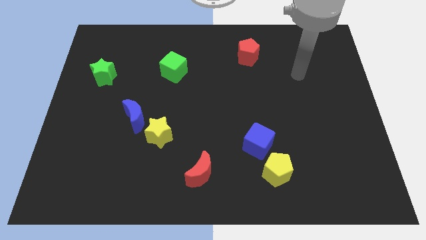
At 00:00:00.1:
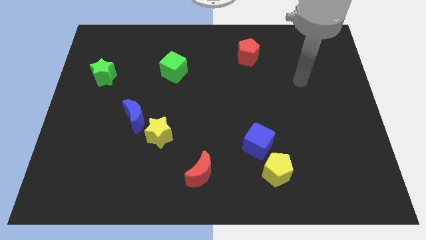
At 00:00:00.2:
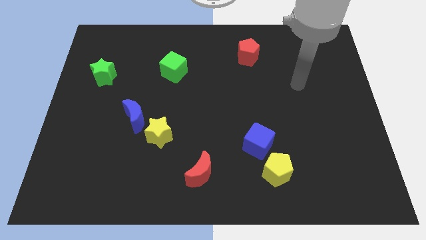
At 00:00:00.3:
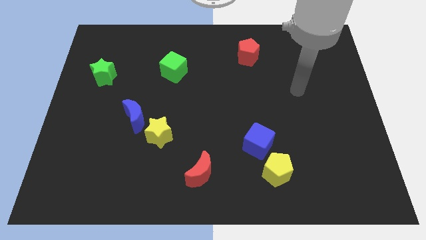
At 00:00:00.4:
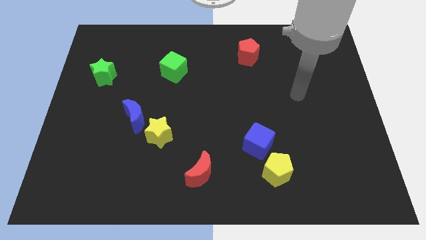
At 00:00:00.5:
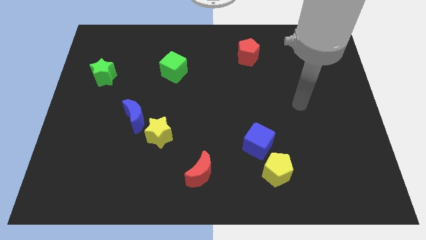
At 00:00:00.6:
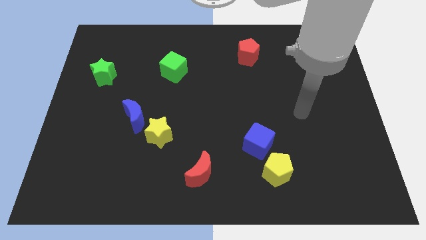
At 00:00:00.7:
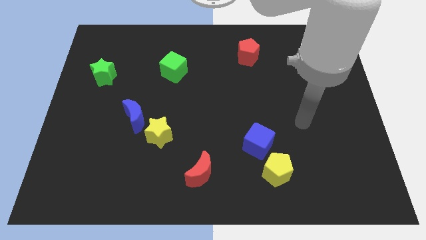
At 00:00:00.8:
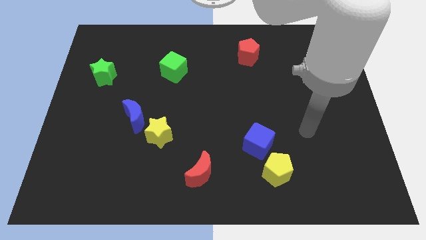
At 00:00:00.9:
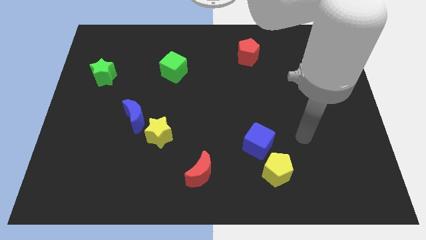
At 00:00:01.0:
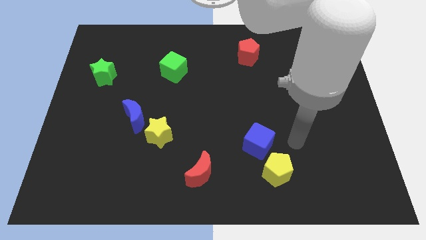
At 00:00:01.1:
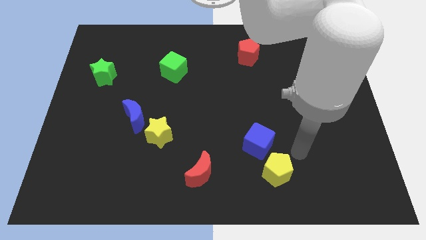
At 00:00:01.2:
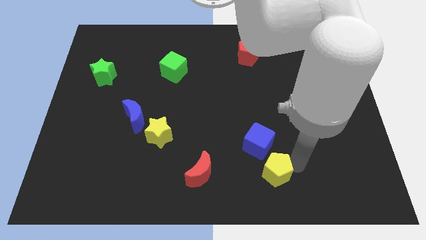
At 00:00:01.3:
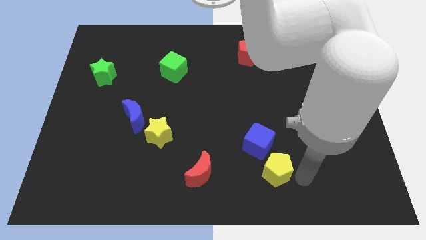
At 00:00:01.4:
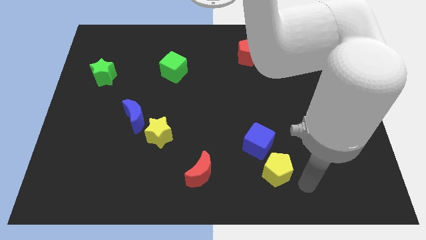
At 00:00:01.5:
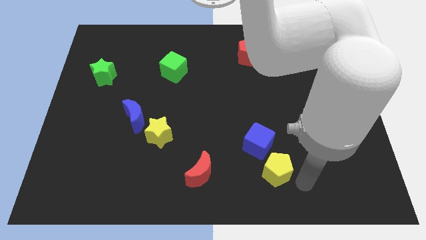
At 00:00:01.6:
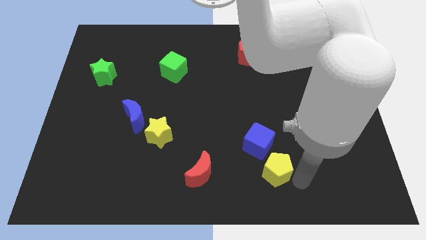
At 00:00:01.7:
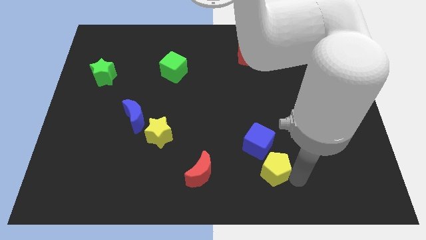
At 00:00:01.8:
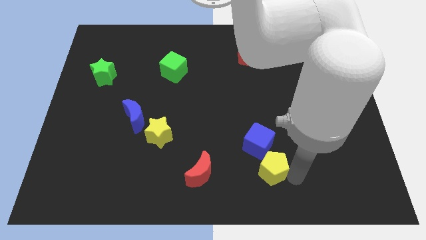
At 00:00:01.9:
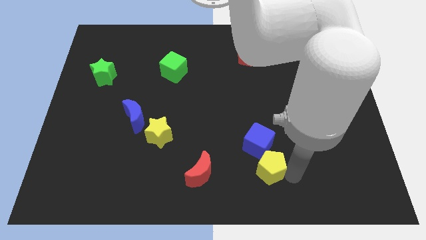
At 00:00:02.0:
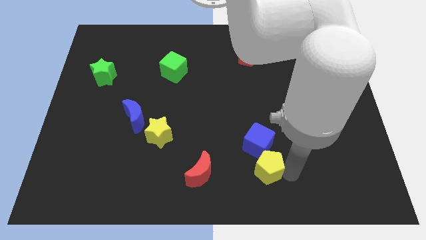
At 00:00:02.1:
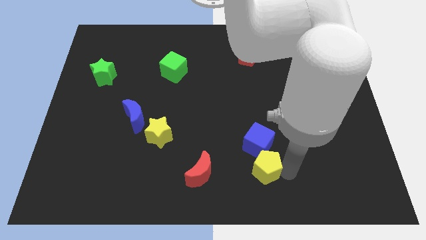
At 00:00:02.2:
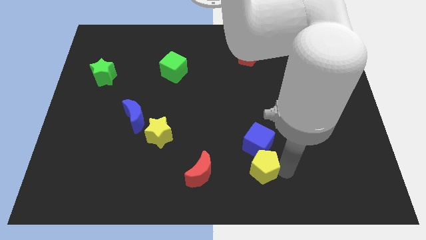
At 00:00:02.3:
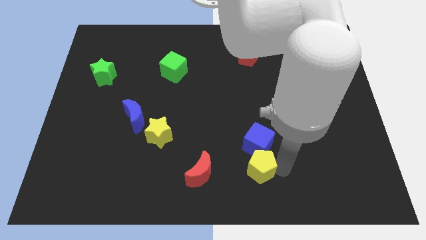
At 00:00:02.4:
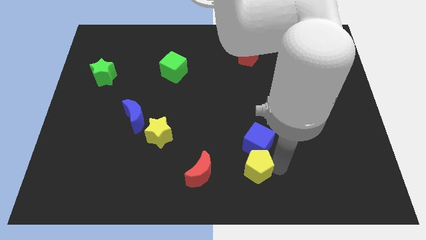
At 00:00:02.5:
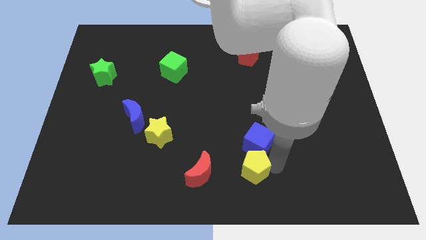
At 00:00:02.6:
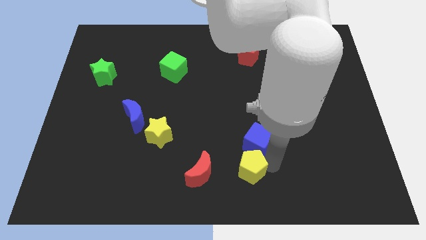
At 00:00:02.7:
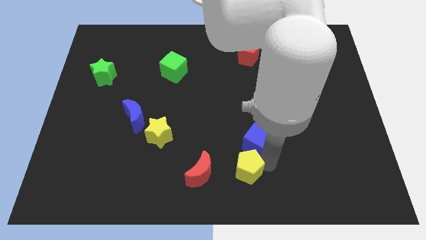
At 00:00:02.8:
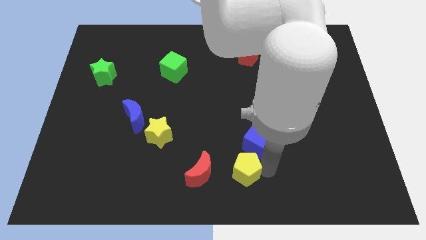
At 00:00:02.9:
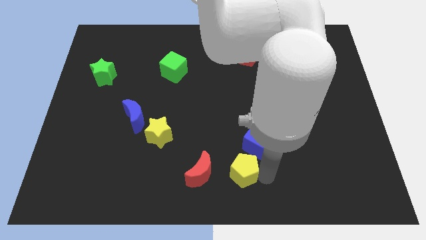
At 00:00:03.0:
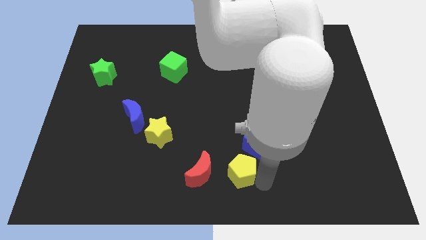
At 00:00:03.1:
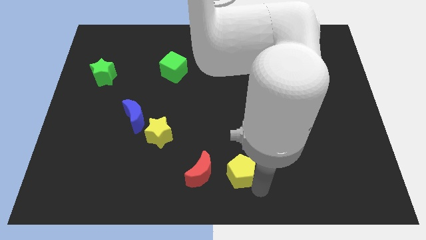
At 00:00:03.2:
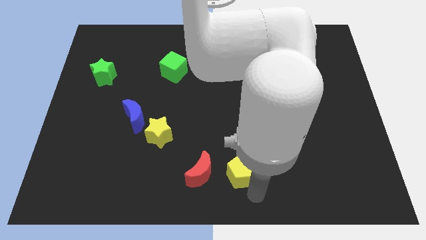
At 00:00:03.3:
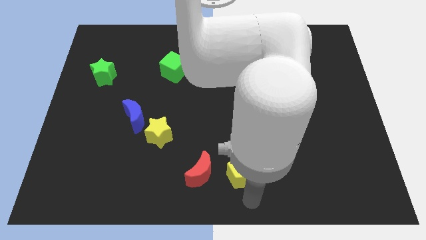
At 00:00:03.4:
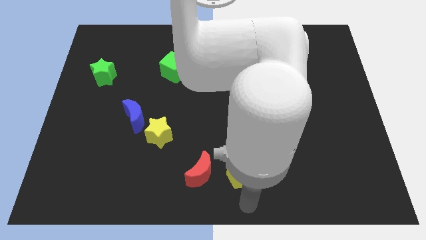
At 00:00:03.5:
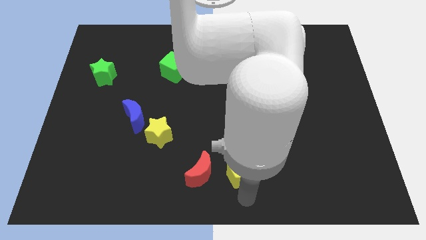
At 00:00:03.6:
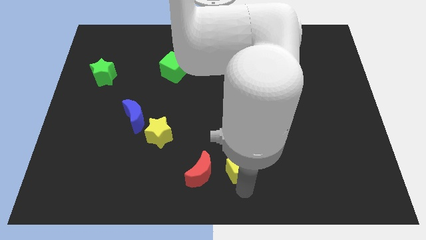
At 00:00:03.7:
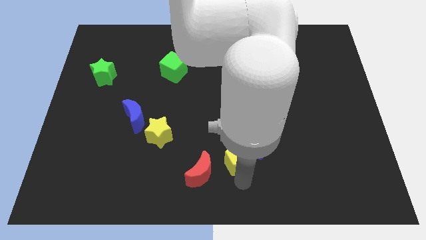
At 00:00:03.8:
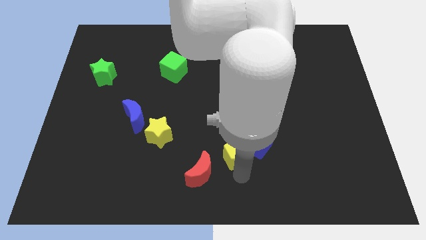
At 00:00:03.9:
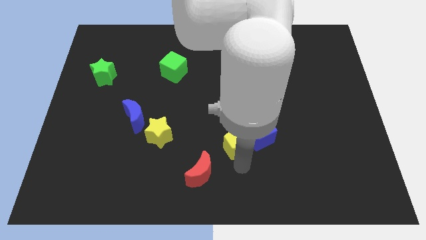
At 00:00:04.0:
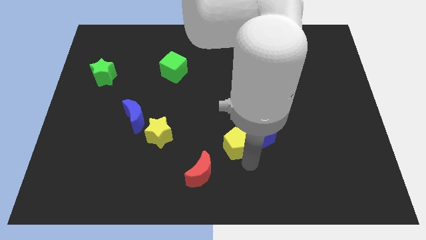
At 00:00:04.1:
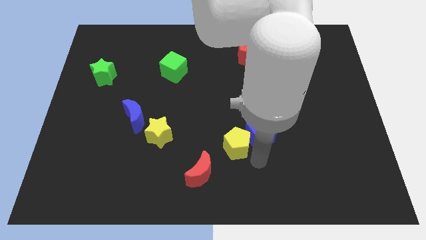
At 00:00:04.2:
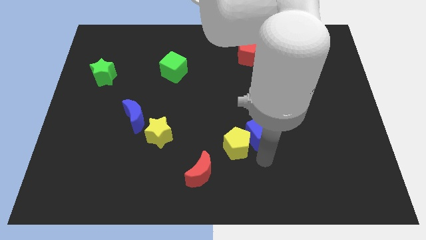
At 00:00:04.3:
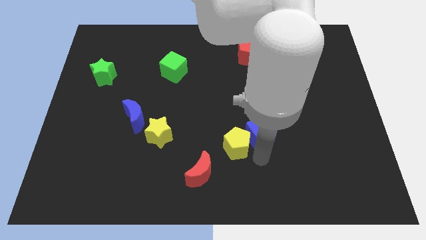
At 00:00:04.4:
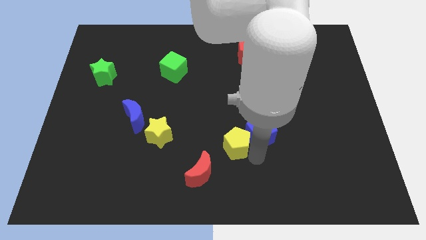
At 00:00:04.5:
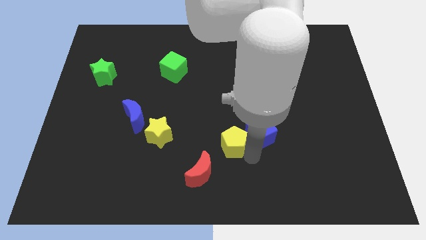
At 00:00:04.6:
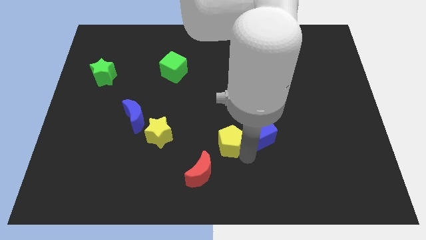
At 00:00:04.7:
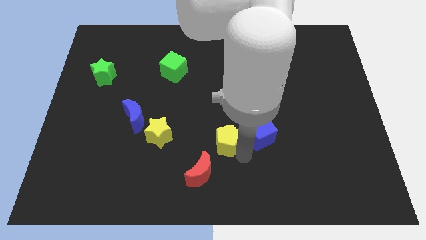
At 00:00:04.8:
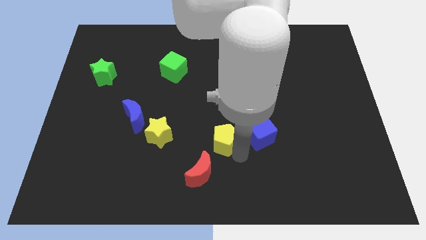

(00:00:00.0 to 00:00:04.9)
push the yellow pentagon to the top side of the red moon

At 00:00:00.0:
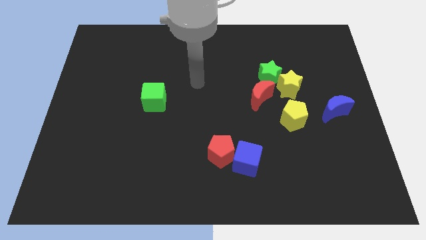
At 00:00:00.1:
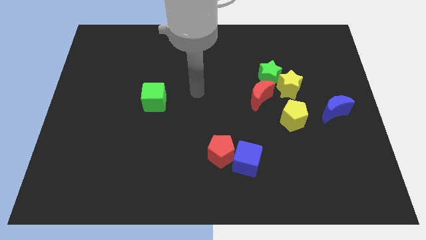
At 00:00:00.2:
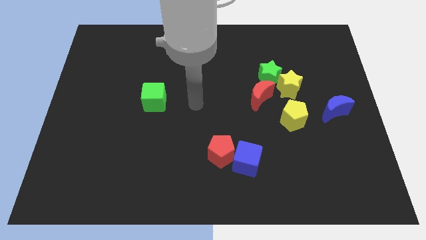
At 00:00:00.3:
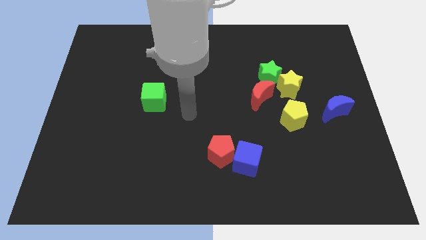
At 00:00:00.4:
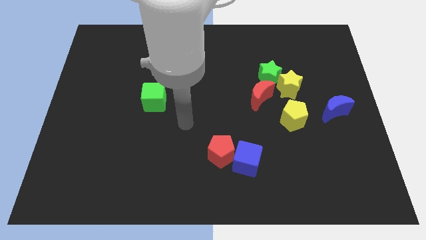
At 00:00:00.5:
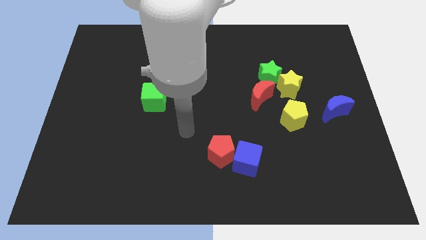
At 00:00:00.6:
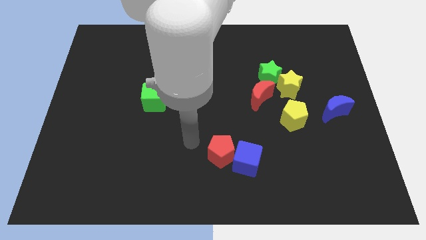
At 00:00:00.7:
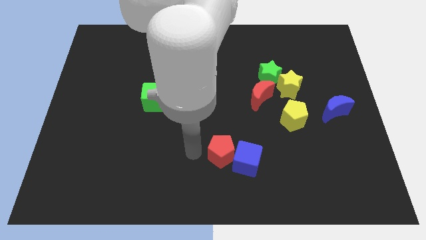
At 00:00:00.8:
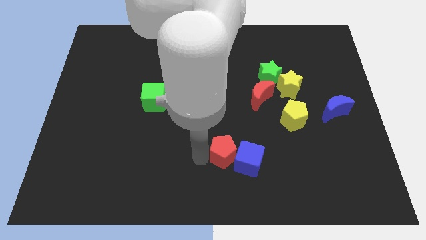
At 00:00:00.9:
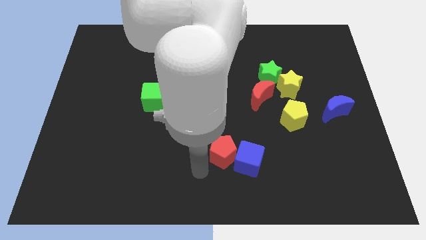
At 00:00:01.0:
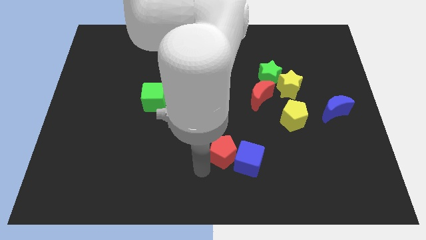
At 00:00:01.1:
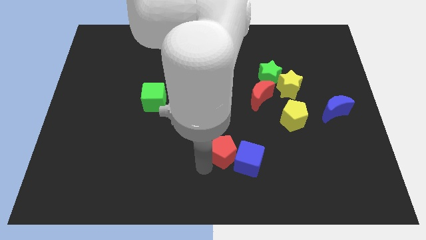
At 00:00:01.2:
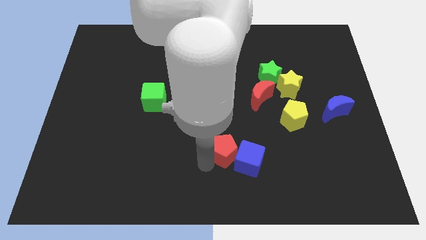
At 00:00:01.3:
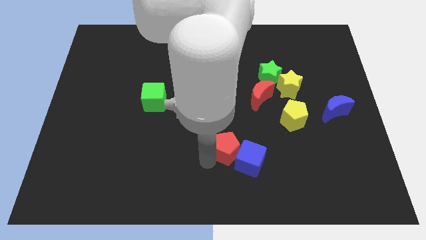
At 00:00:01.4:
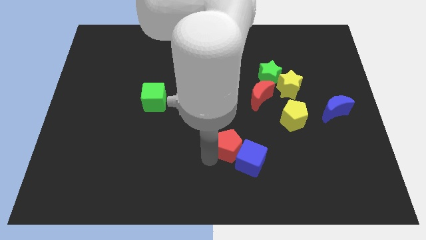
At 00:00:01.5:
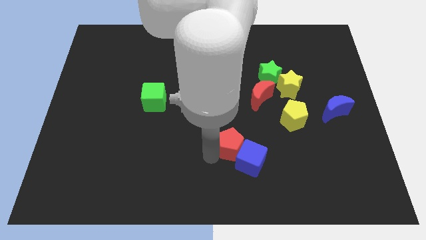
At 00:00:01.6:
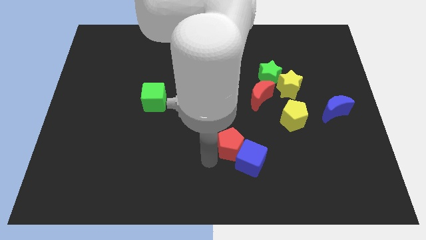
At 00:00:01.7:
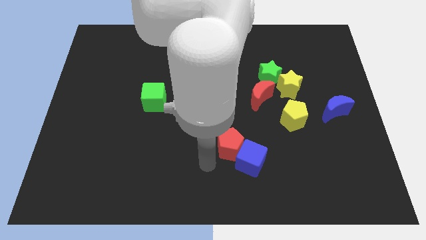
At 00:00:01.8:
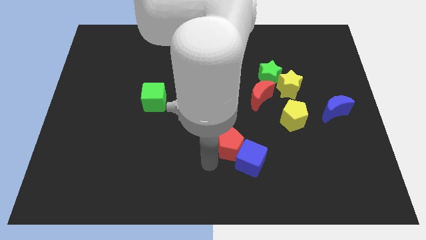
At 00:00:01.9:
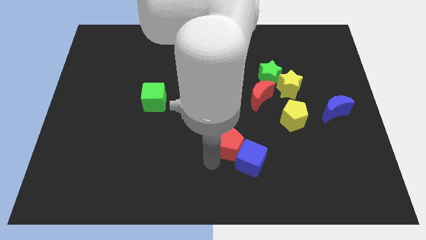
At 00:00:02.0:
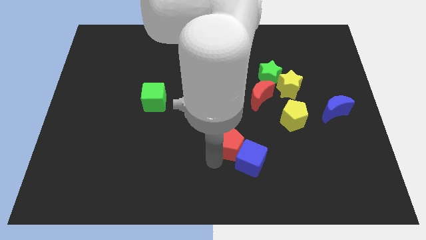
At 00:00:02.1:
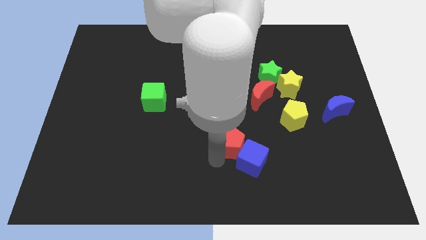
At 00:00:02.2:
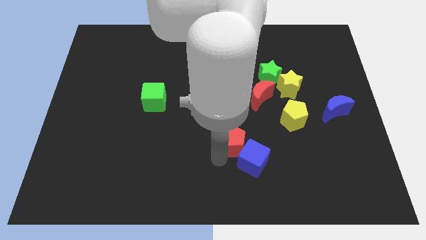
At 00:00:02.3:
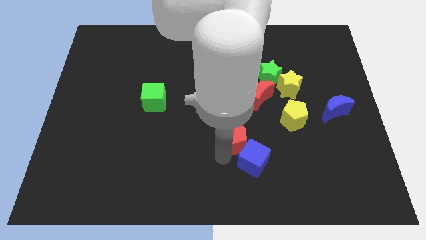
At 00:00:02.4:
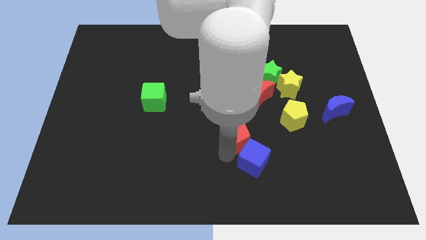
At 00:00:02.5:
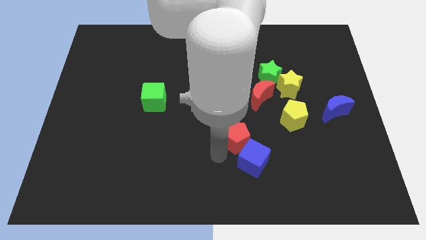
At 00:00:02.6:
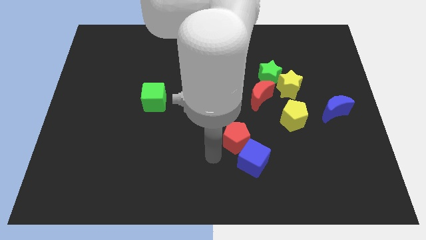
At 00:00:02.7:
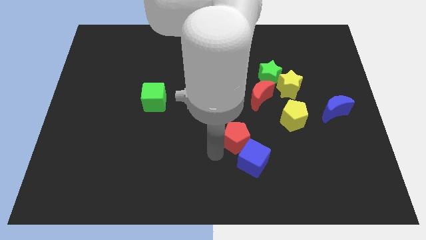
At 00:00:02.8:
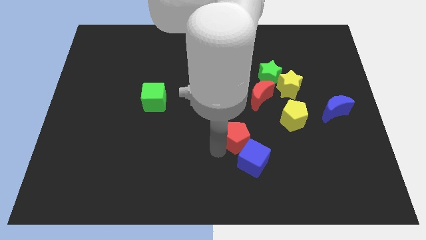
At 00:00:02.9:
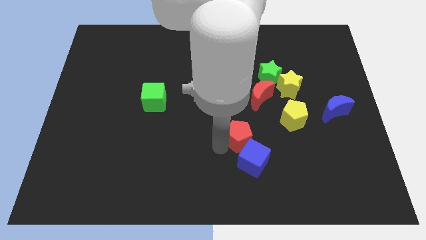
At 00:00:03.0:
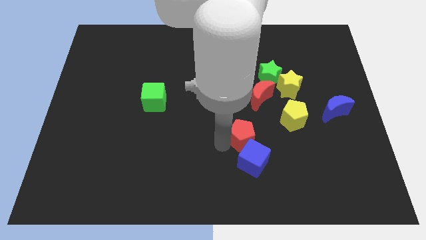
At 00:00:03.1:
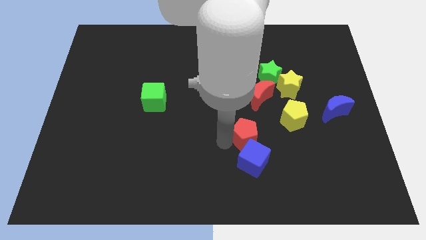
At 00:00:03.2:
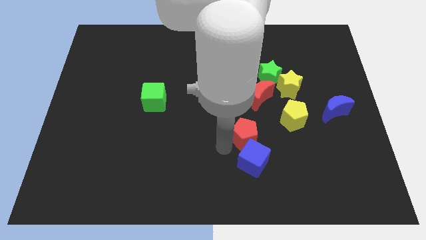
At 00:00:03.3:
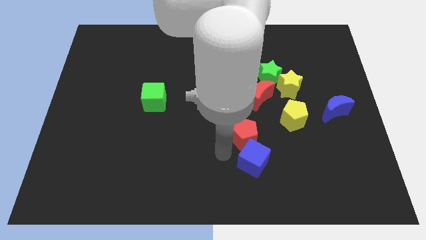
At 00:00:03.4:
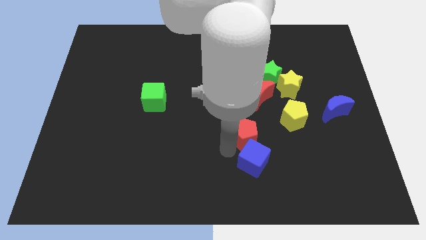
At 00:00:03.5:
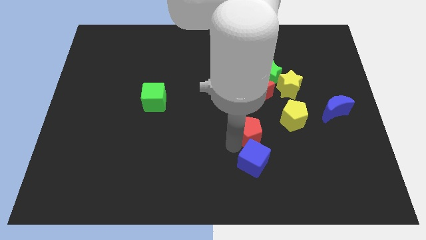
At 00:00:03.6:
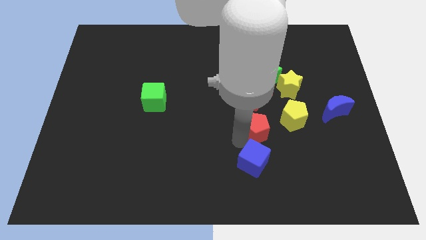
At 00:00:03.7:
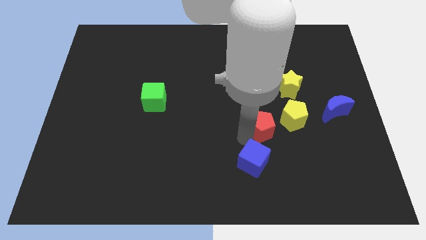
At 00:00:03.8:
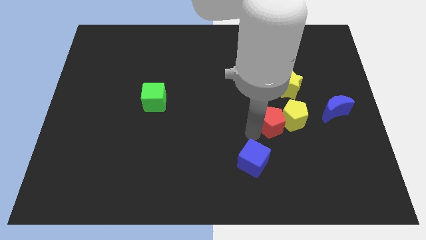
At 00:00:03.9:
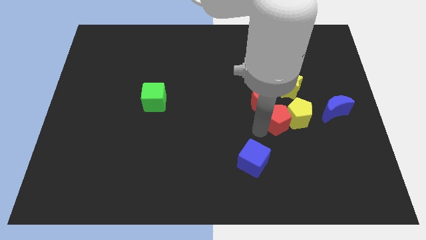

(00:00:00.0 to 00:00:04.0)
push the red pentagon to the left of the blue moon
